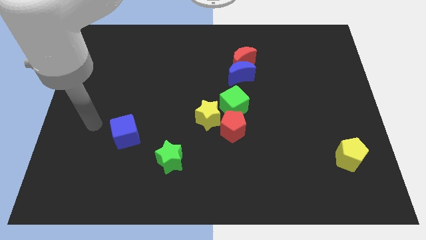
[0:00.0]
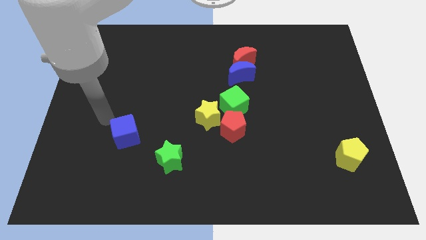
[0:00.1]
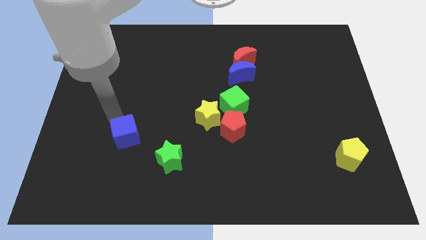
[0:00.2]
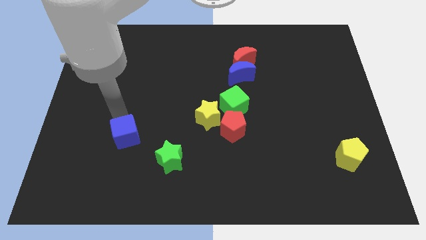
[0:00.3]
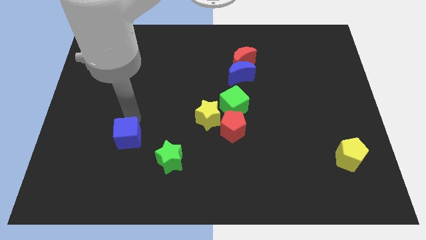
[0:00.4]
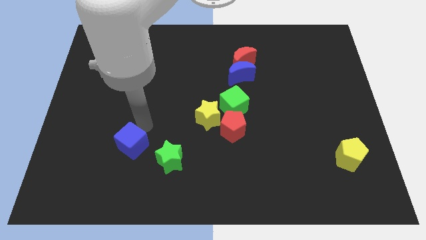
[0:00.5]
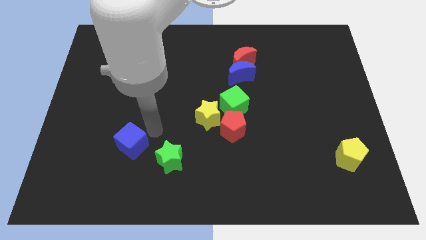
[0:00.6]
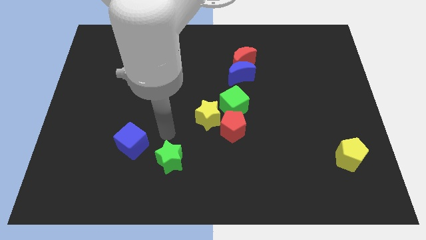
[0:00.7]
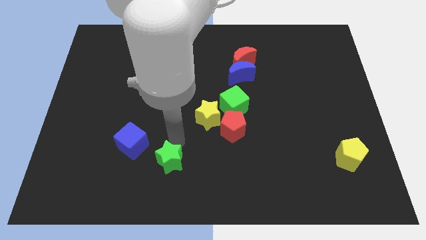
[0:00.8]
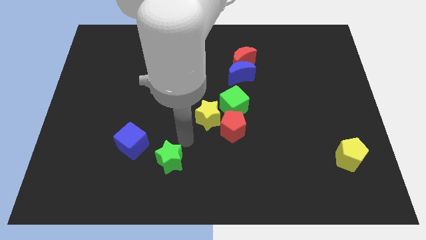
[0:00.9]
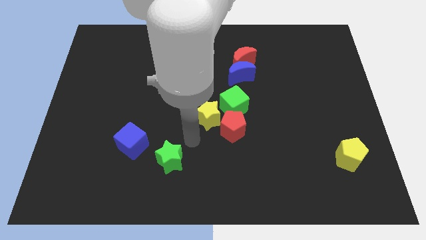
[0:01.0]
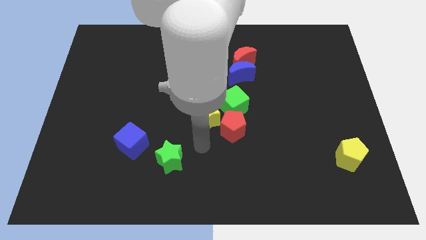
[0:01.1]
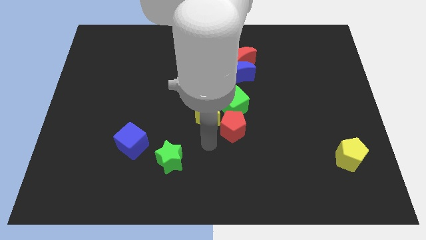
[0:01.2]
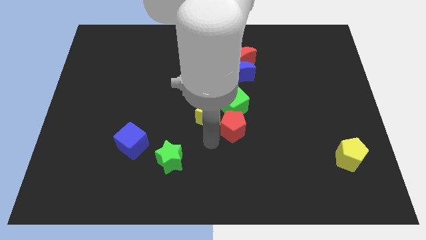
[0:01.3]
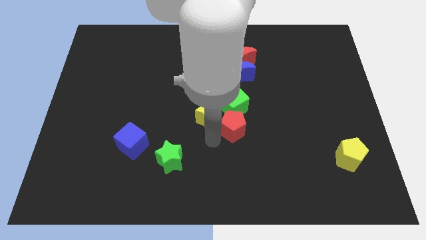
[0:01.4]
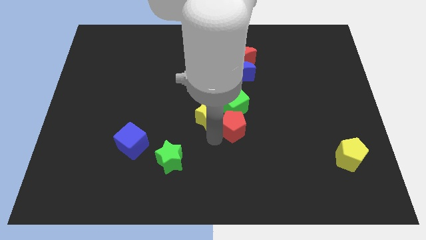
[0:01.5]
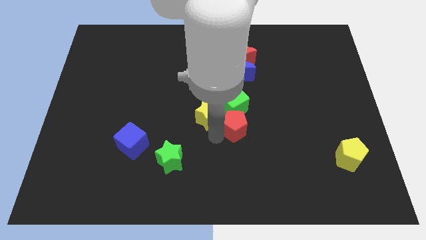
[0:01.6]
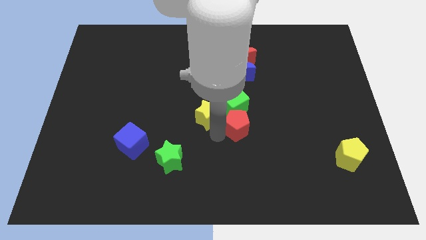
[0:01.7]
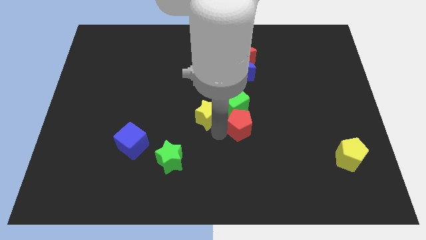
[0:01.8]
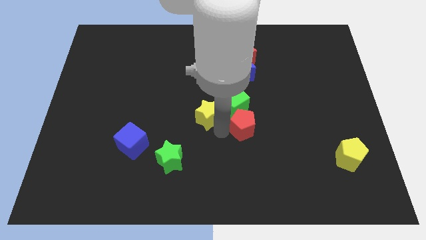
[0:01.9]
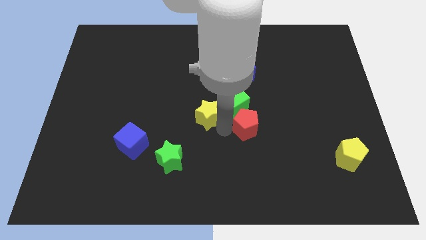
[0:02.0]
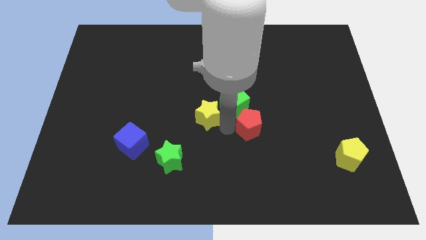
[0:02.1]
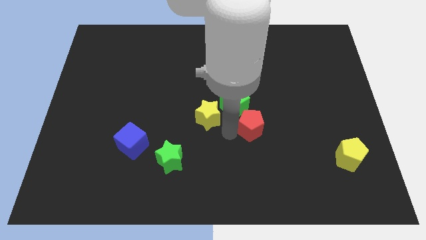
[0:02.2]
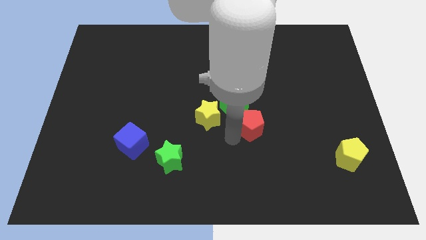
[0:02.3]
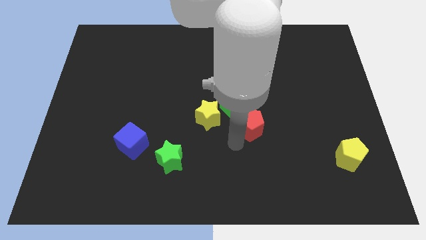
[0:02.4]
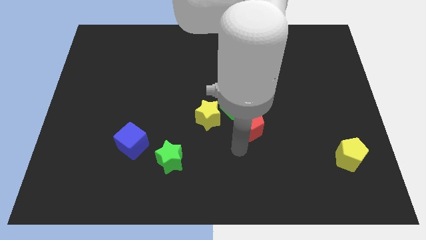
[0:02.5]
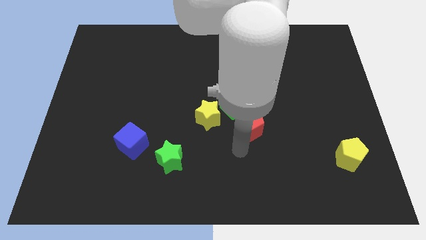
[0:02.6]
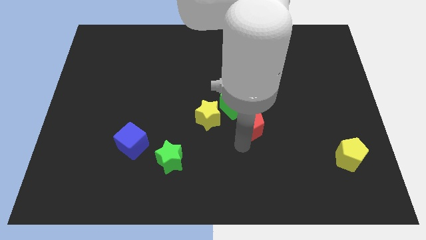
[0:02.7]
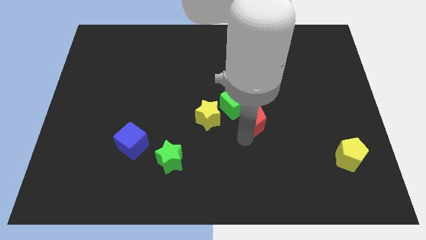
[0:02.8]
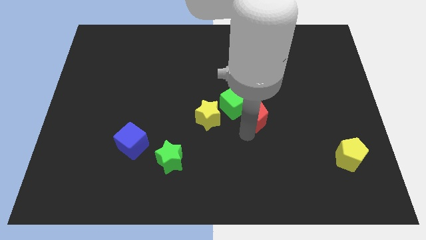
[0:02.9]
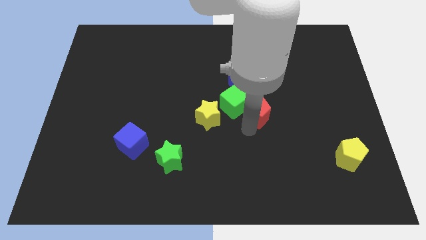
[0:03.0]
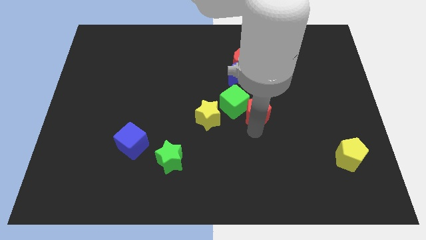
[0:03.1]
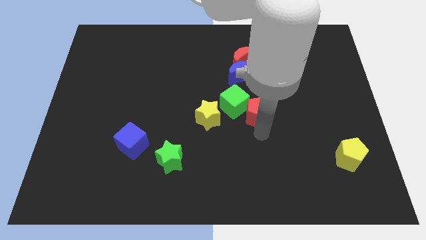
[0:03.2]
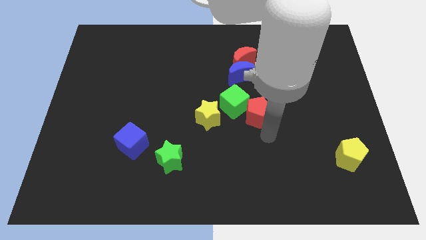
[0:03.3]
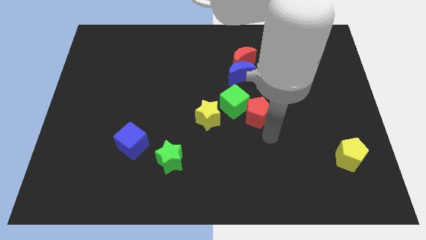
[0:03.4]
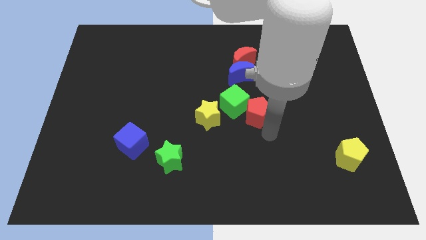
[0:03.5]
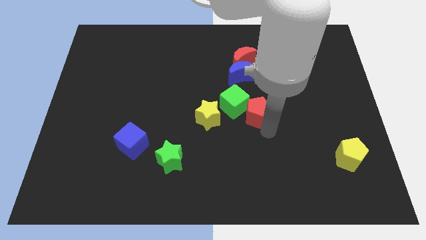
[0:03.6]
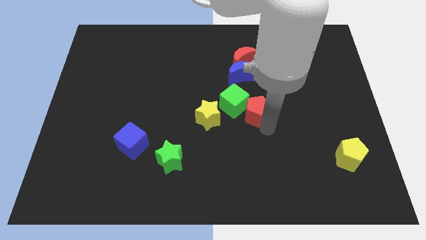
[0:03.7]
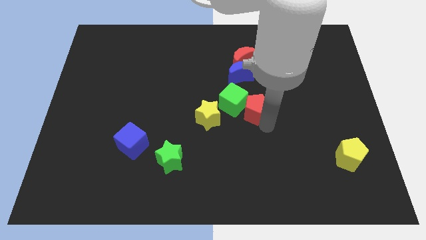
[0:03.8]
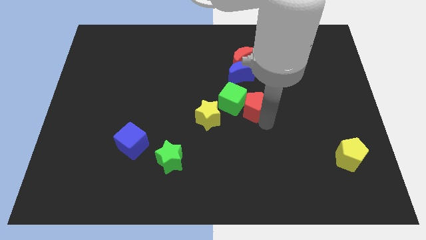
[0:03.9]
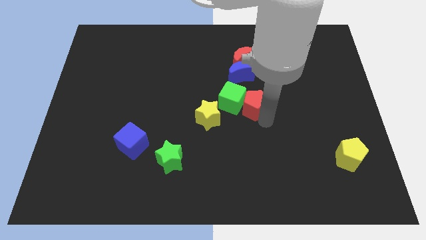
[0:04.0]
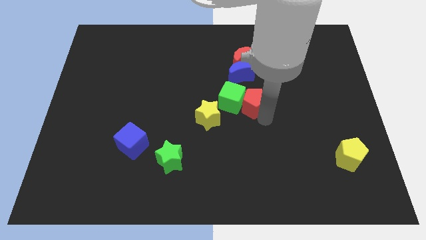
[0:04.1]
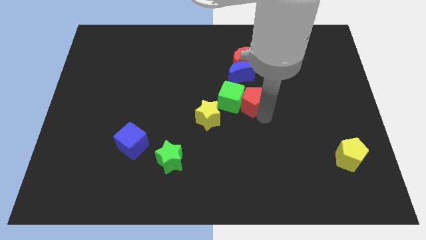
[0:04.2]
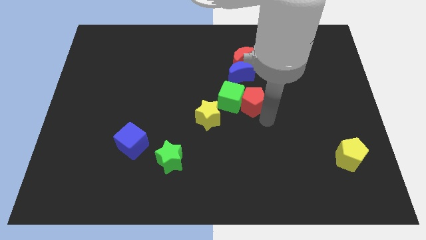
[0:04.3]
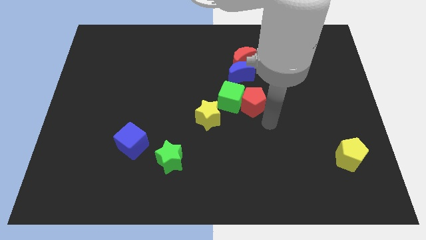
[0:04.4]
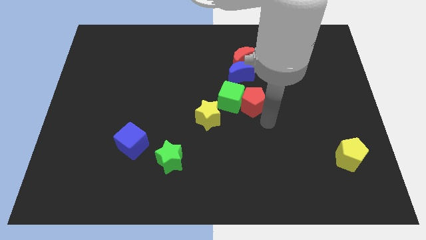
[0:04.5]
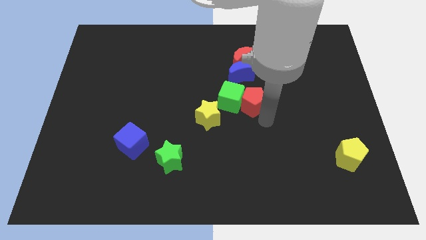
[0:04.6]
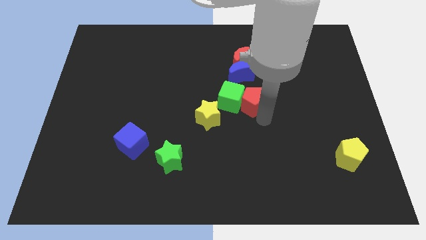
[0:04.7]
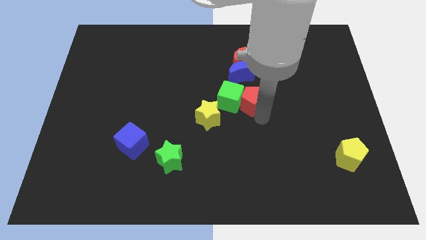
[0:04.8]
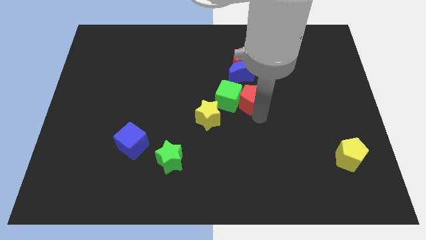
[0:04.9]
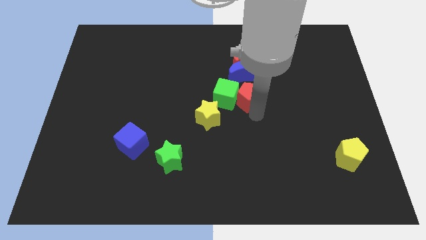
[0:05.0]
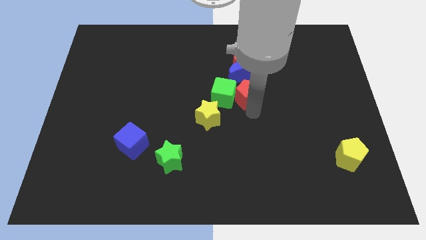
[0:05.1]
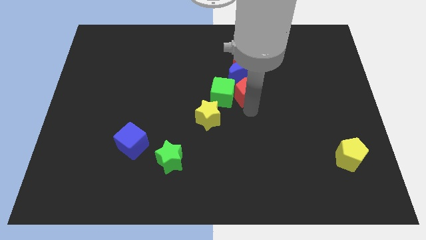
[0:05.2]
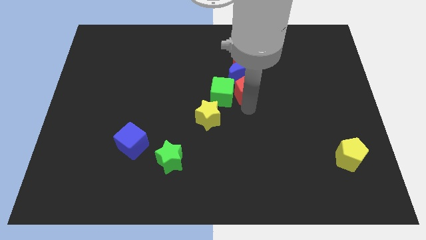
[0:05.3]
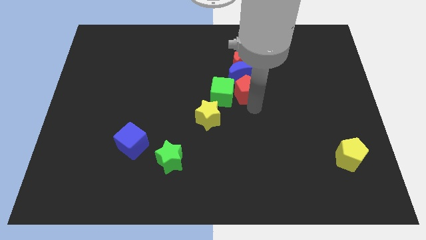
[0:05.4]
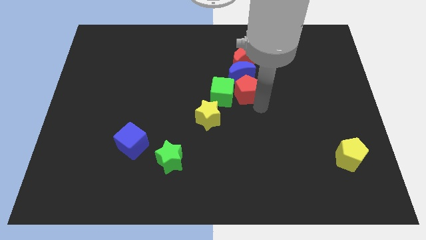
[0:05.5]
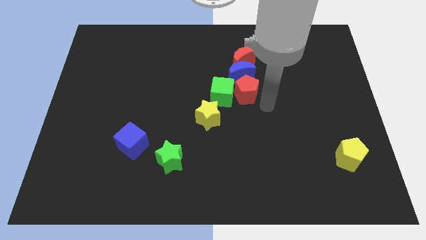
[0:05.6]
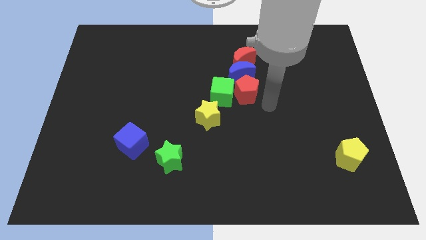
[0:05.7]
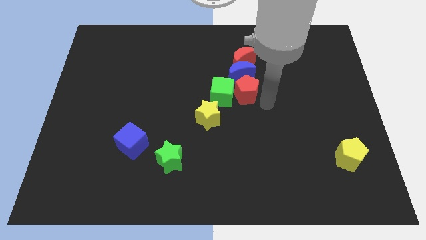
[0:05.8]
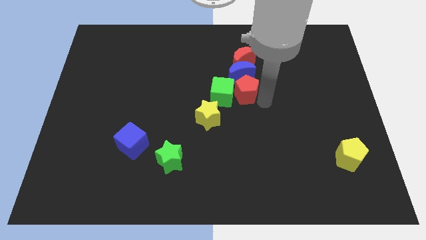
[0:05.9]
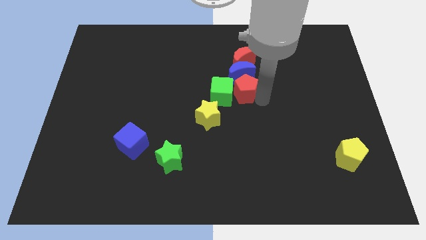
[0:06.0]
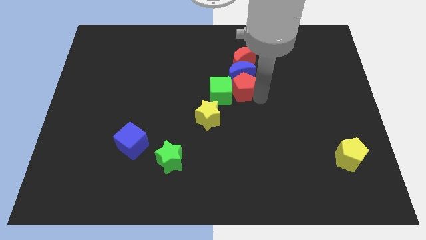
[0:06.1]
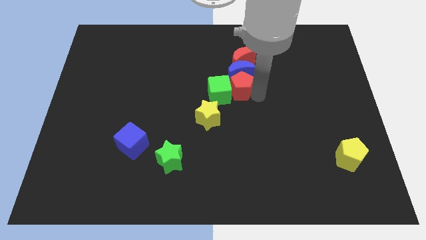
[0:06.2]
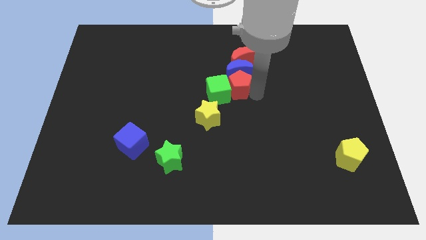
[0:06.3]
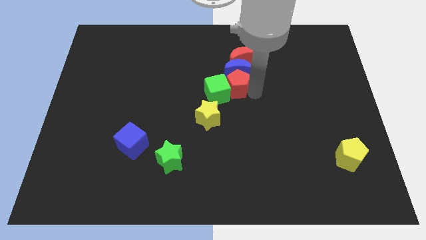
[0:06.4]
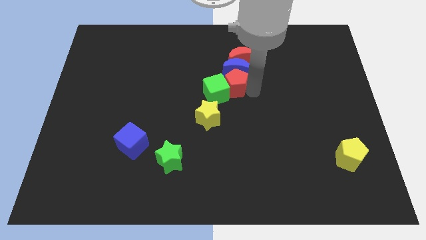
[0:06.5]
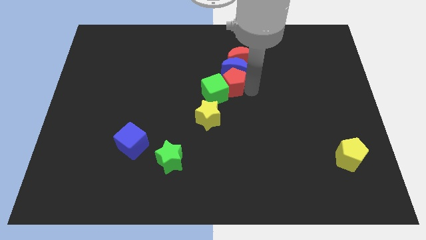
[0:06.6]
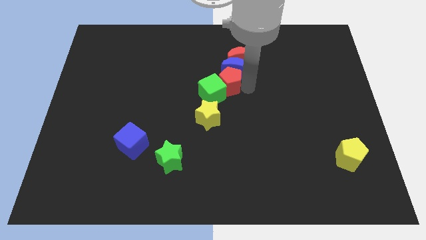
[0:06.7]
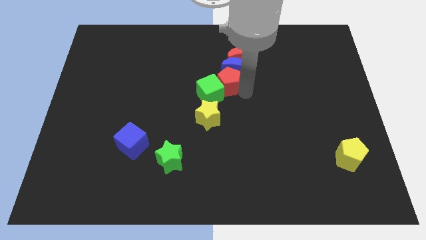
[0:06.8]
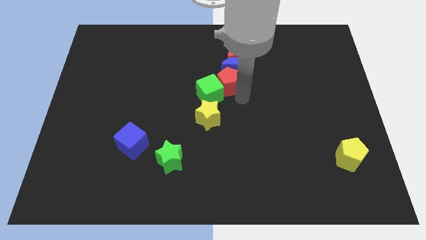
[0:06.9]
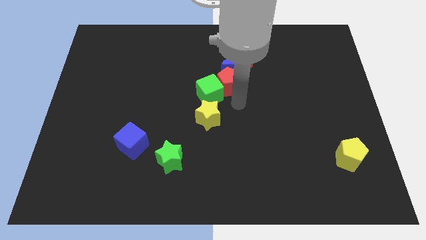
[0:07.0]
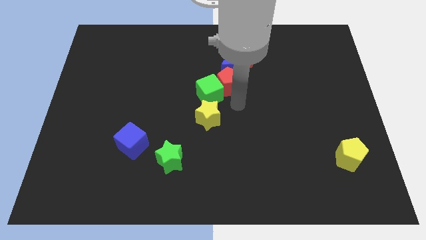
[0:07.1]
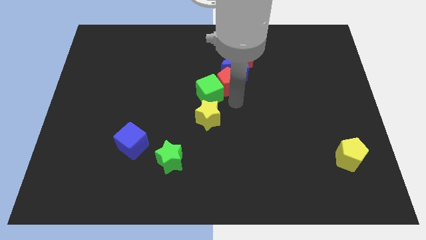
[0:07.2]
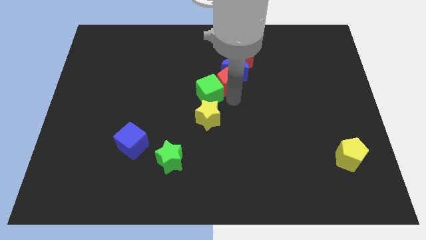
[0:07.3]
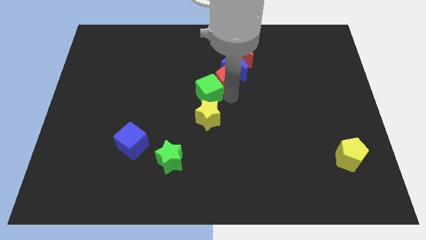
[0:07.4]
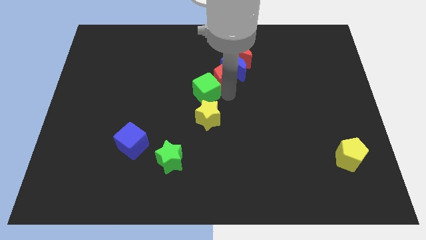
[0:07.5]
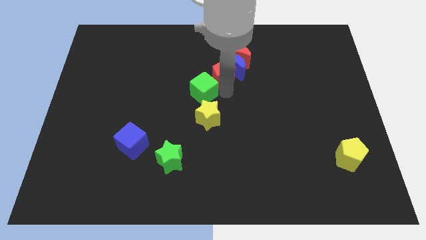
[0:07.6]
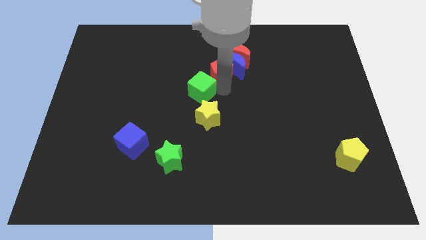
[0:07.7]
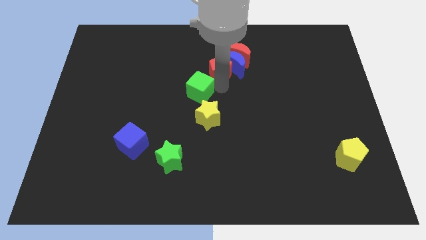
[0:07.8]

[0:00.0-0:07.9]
push the red pentagon diagonally up and to the left of the blue moon
